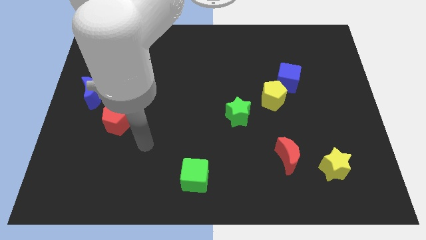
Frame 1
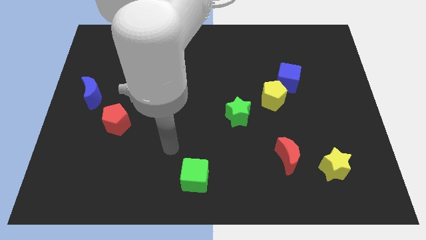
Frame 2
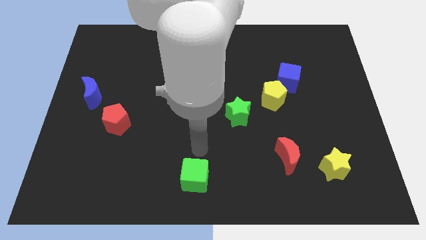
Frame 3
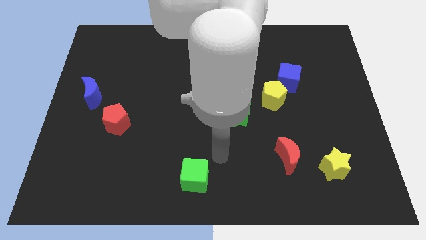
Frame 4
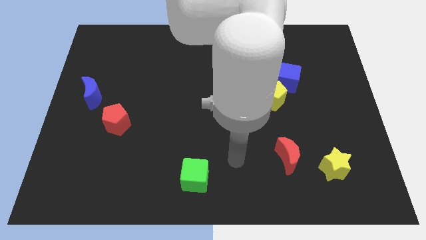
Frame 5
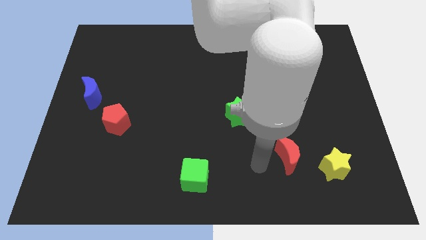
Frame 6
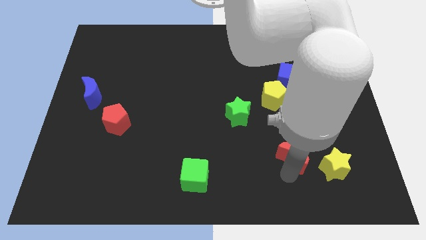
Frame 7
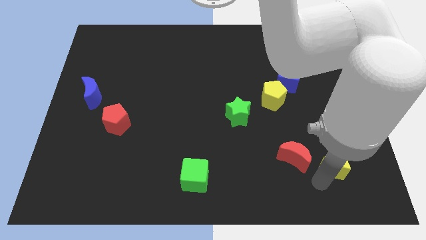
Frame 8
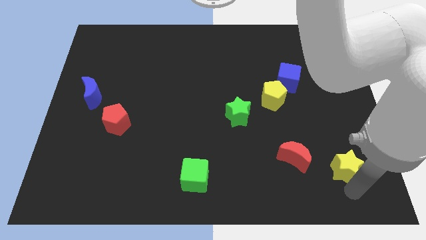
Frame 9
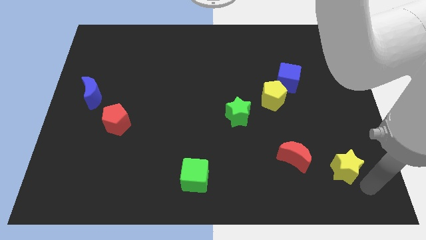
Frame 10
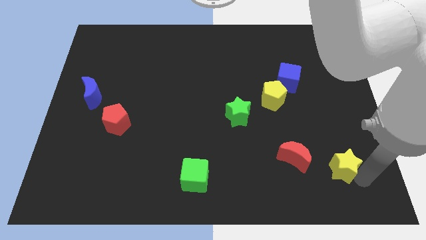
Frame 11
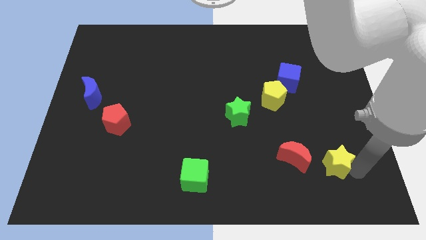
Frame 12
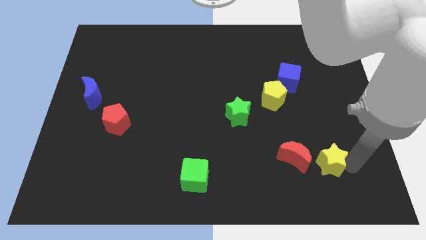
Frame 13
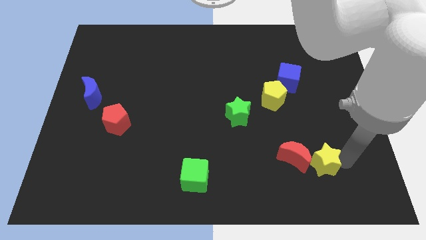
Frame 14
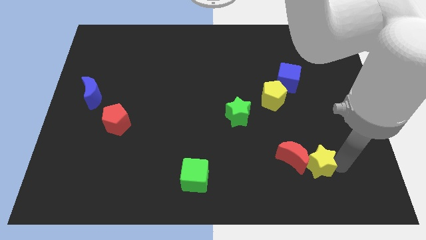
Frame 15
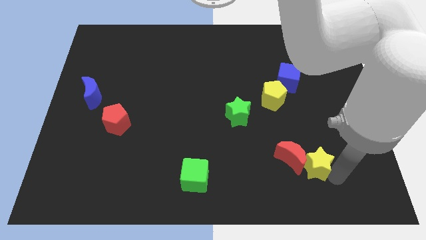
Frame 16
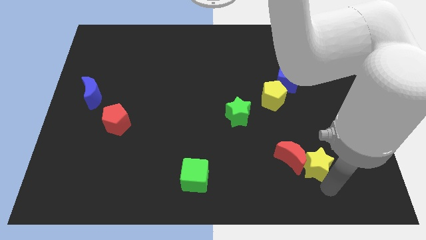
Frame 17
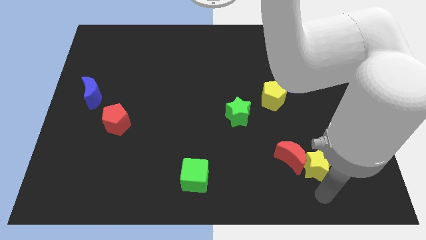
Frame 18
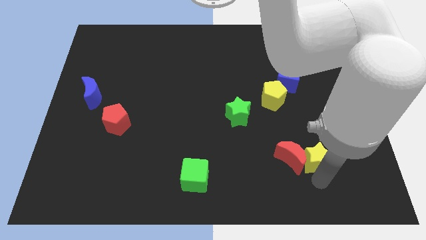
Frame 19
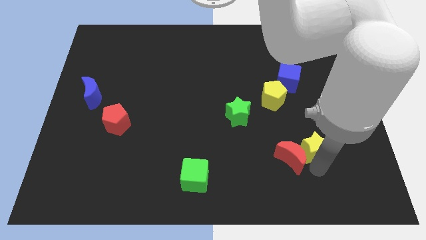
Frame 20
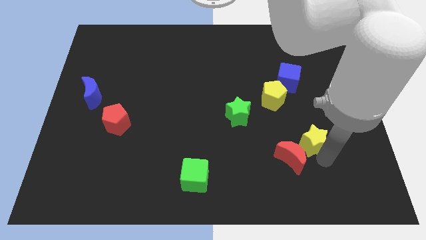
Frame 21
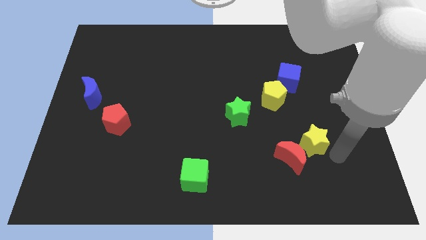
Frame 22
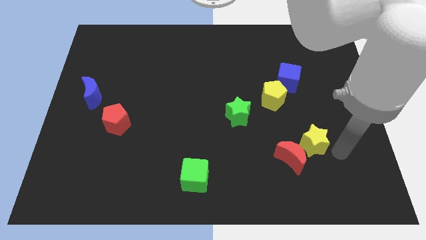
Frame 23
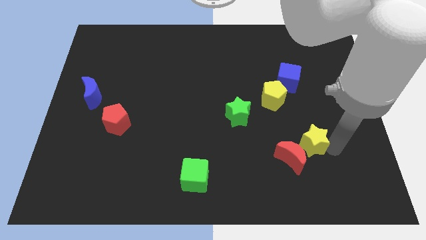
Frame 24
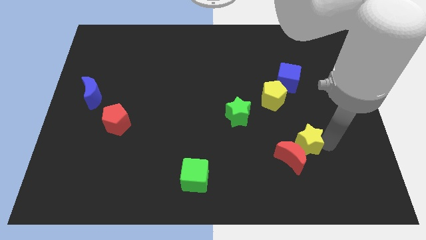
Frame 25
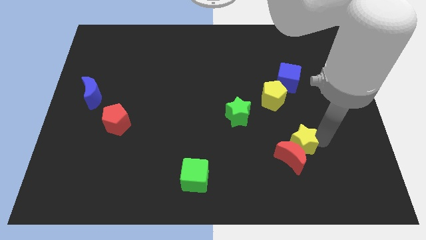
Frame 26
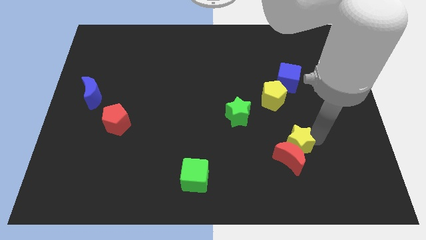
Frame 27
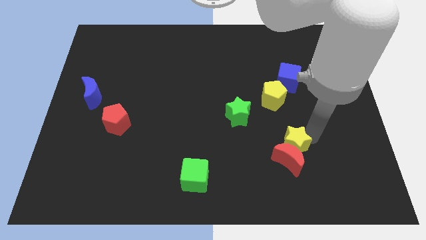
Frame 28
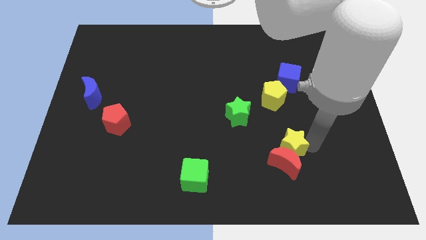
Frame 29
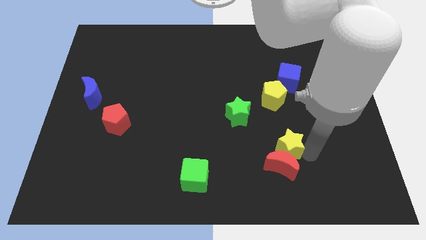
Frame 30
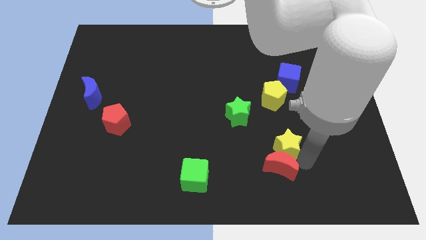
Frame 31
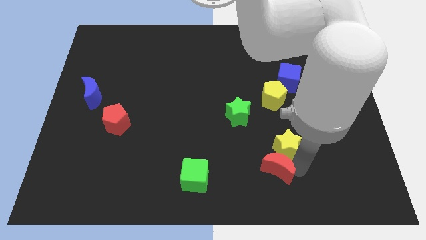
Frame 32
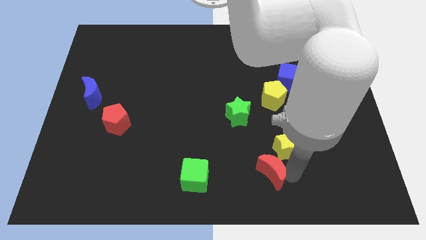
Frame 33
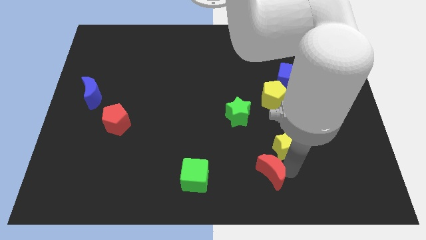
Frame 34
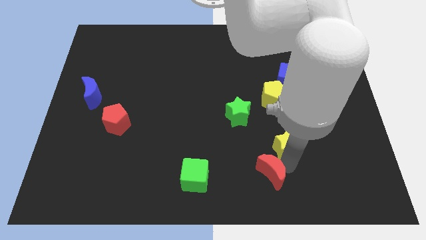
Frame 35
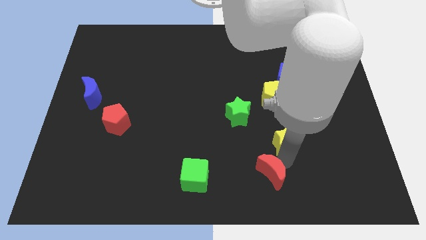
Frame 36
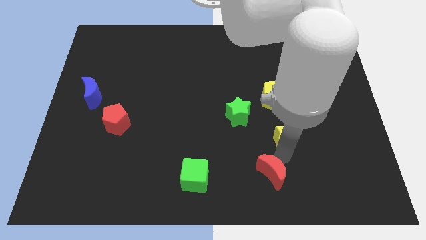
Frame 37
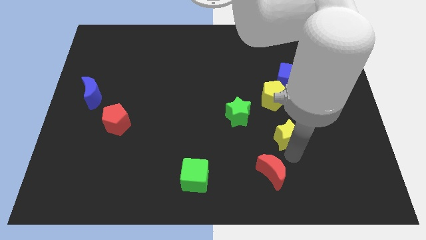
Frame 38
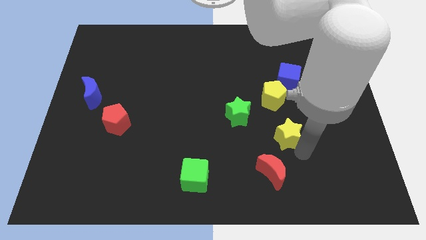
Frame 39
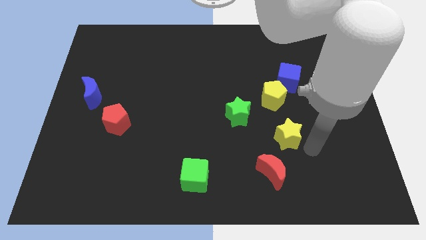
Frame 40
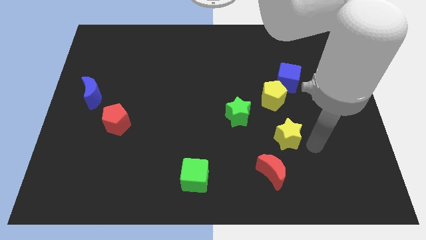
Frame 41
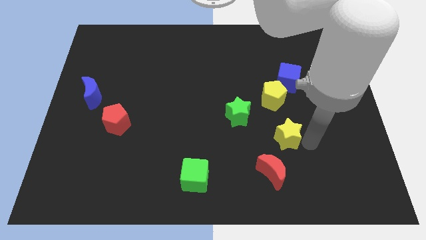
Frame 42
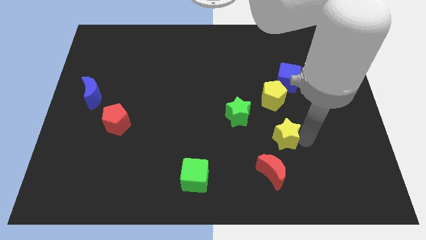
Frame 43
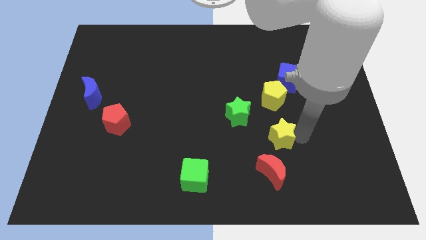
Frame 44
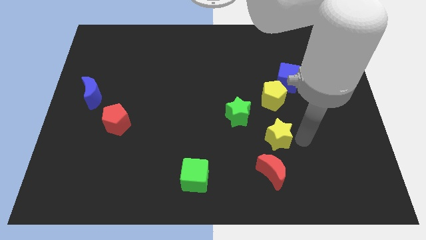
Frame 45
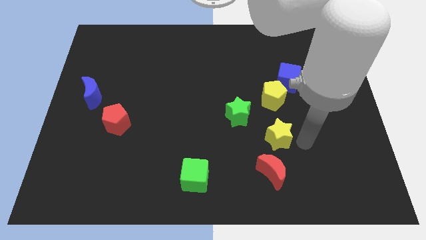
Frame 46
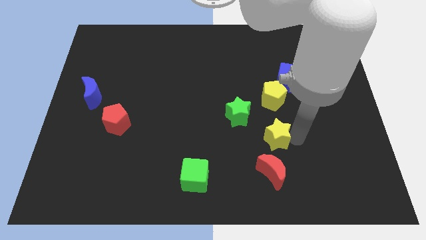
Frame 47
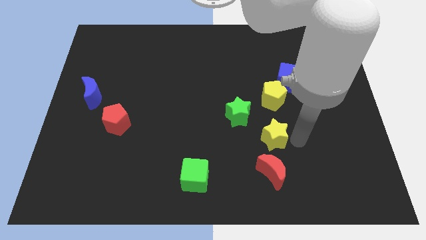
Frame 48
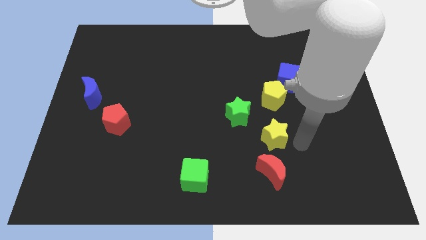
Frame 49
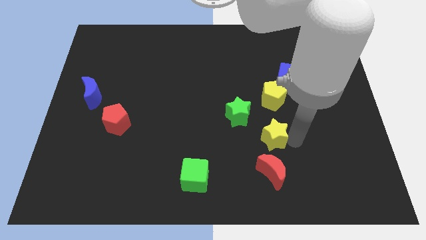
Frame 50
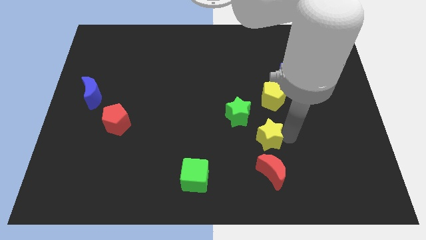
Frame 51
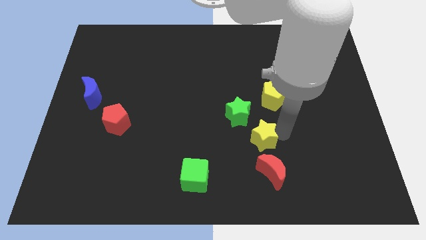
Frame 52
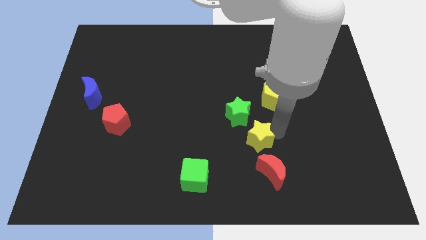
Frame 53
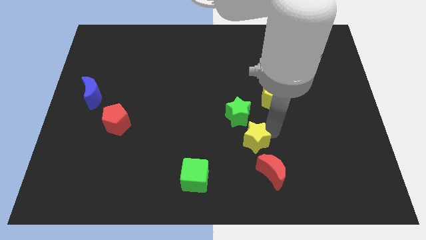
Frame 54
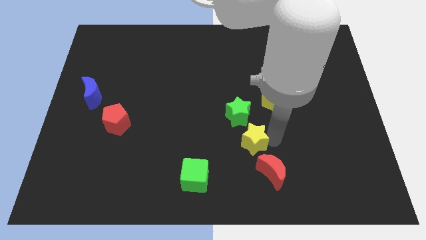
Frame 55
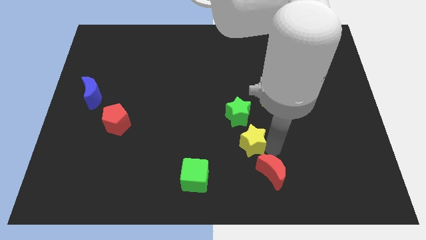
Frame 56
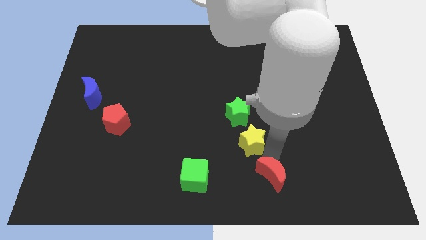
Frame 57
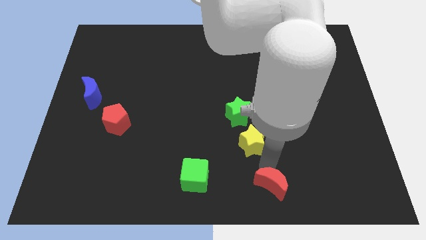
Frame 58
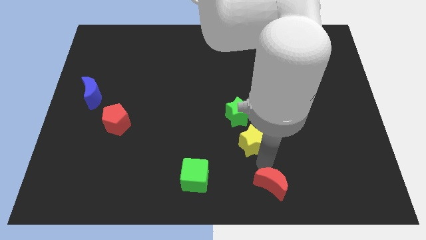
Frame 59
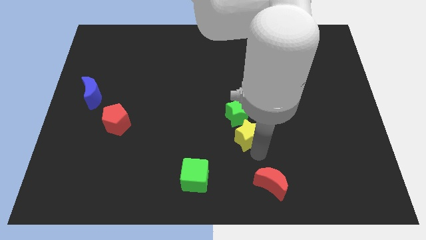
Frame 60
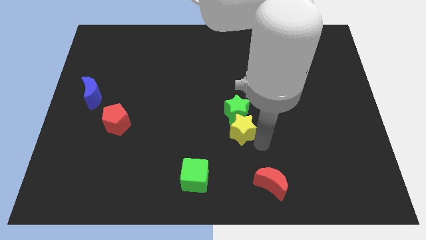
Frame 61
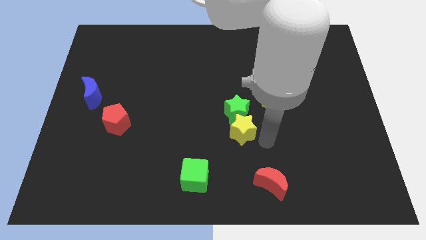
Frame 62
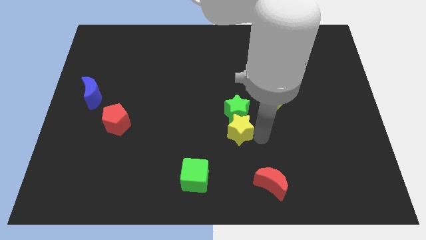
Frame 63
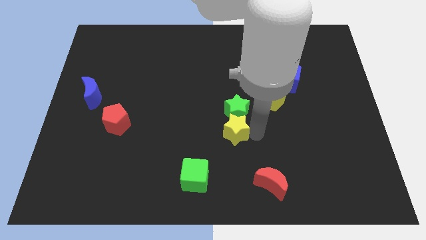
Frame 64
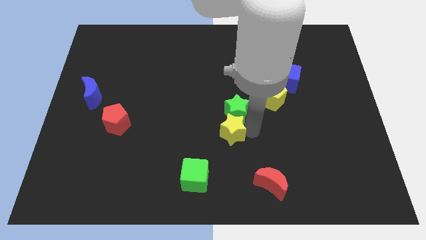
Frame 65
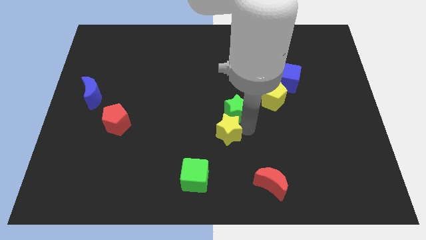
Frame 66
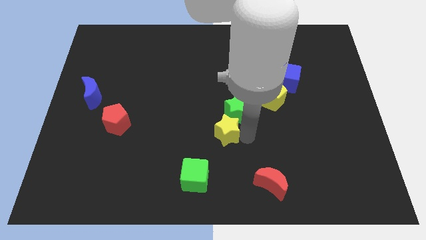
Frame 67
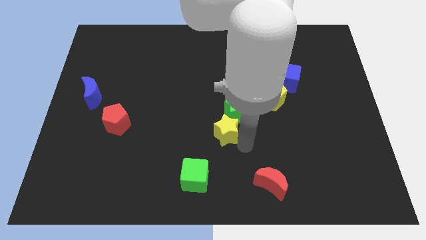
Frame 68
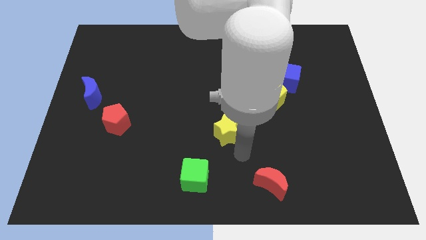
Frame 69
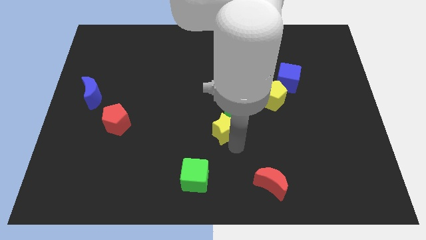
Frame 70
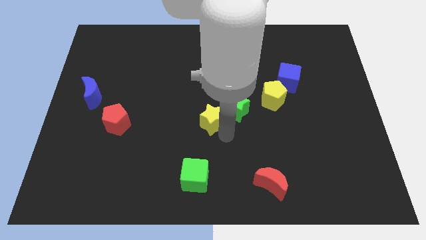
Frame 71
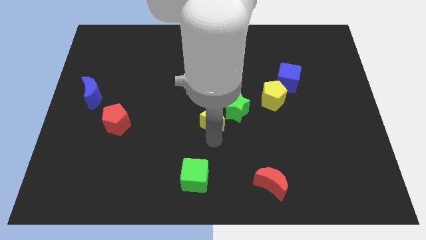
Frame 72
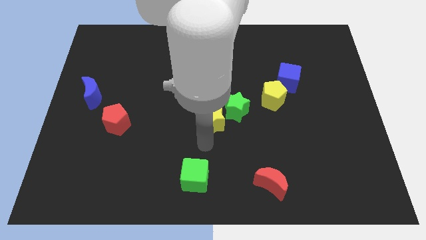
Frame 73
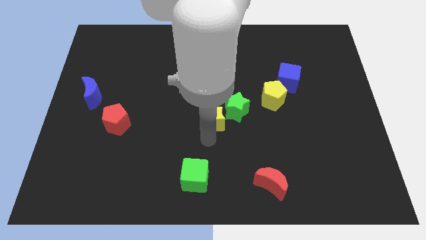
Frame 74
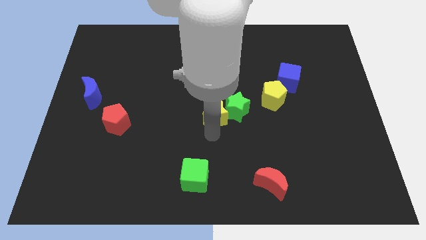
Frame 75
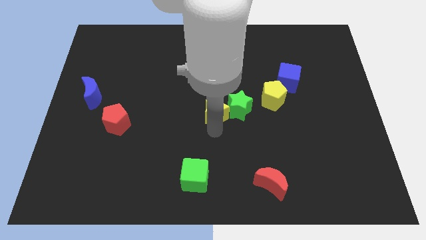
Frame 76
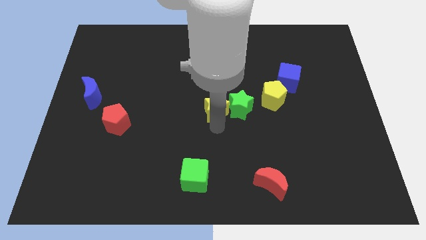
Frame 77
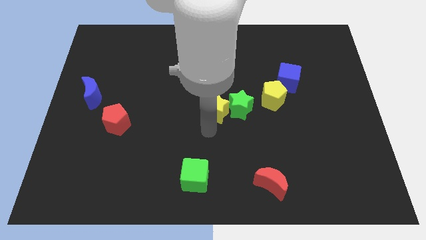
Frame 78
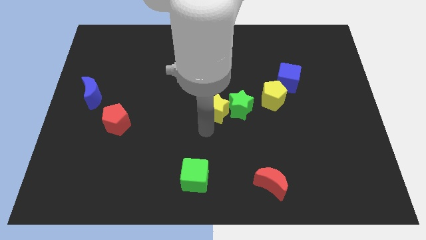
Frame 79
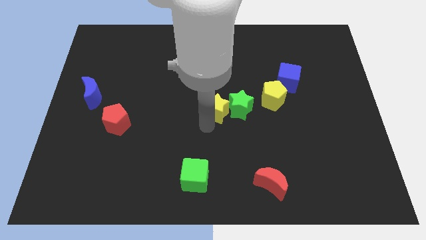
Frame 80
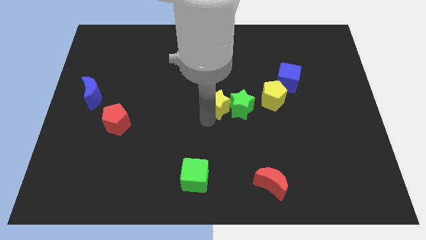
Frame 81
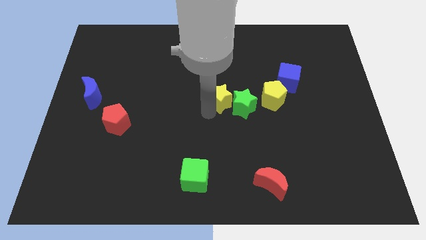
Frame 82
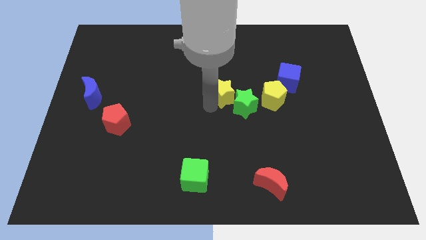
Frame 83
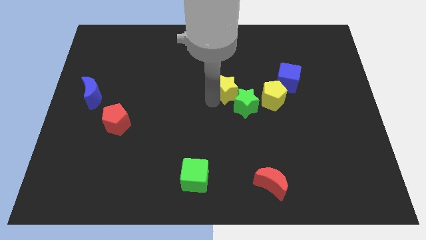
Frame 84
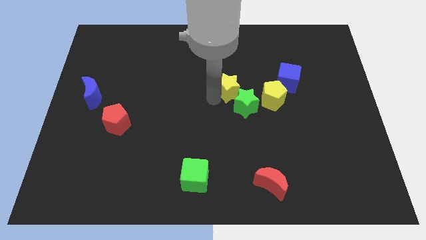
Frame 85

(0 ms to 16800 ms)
slide the yellow star just left of the blue cube

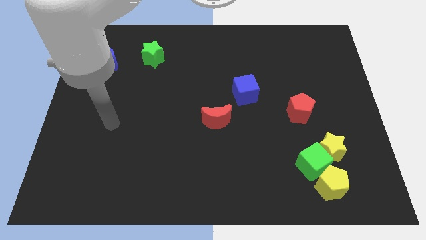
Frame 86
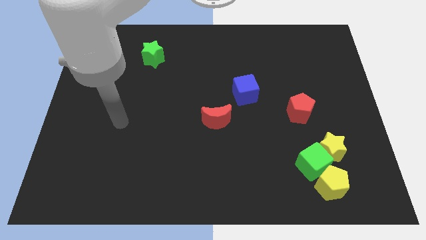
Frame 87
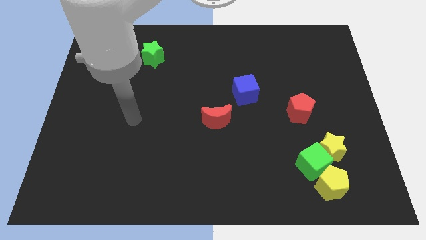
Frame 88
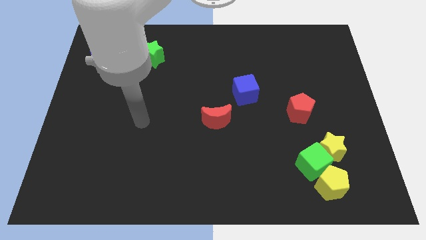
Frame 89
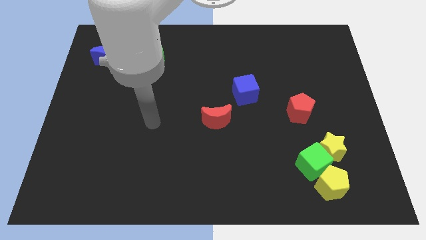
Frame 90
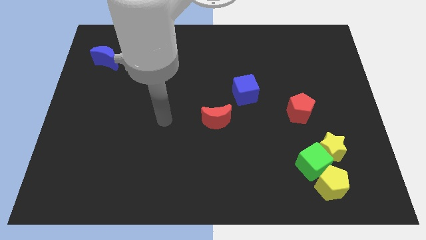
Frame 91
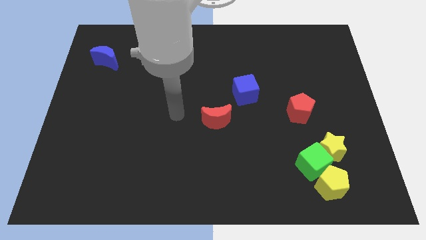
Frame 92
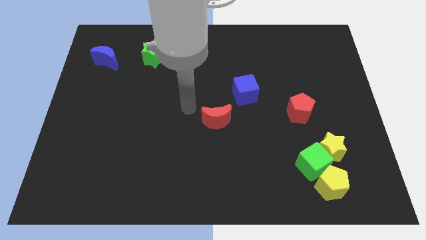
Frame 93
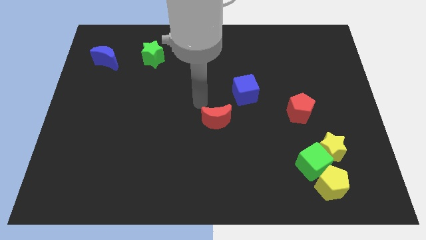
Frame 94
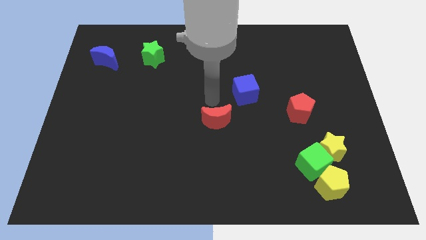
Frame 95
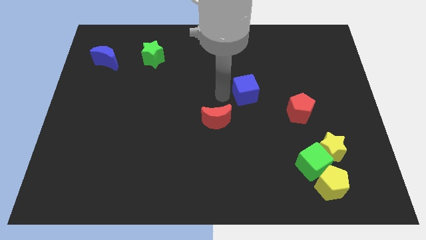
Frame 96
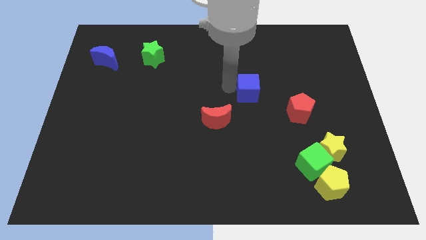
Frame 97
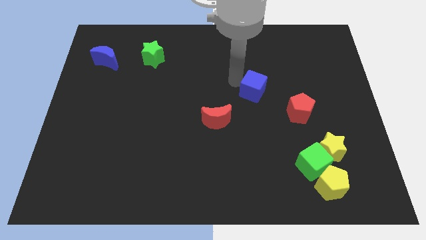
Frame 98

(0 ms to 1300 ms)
move the red pentagon diagonally down and to the right of the blue cube
